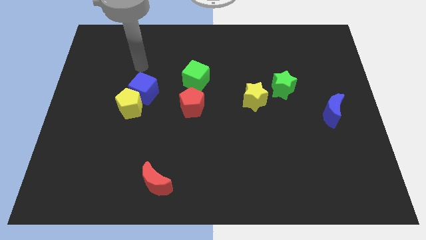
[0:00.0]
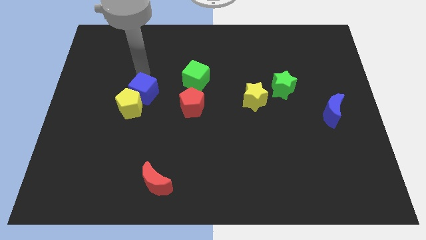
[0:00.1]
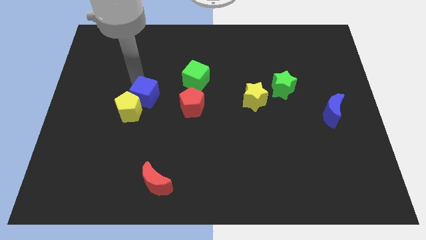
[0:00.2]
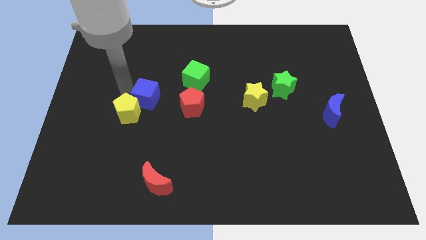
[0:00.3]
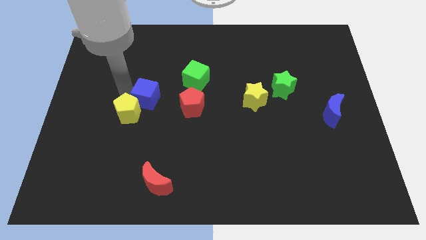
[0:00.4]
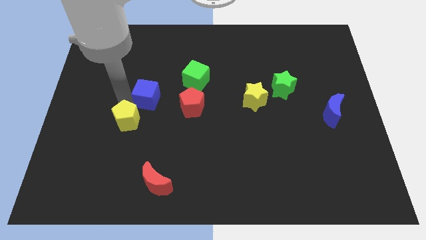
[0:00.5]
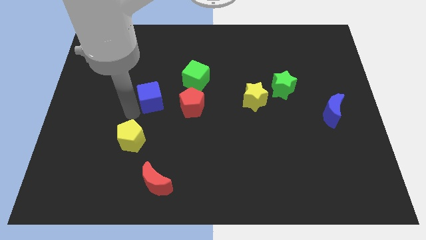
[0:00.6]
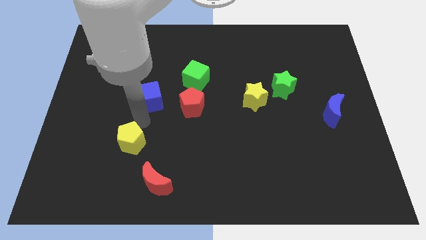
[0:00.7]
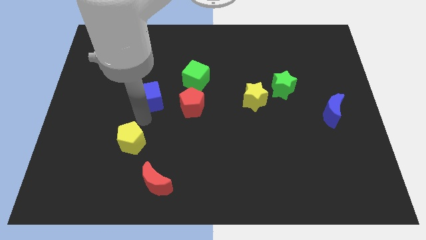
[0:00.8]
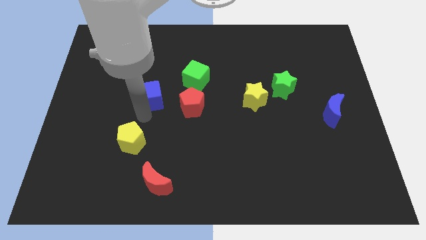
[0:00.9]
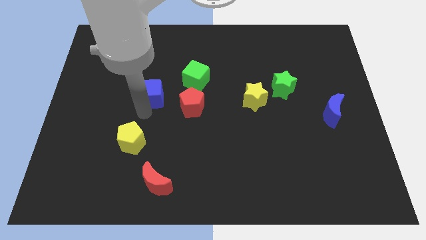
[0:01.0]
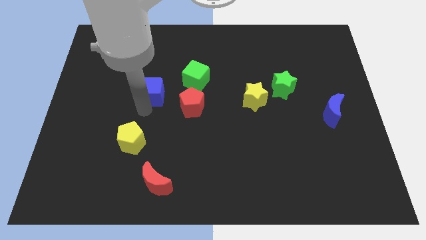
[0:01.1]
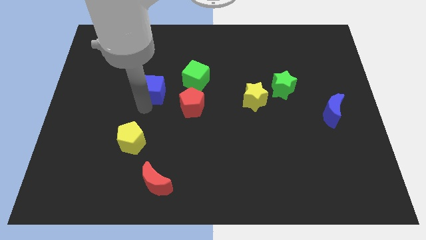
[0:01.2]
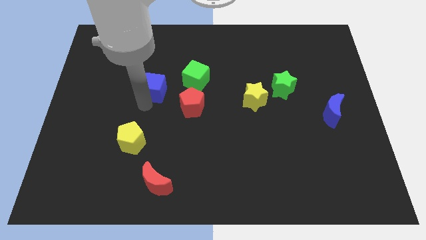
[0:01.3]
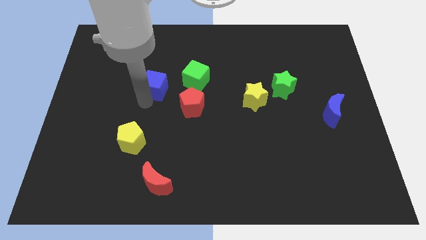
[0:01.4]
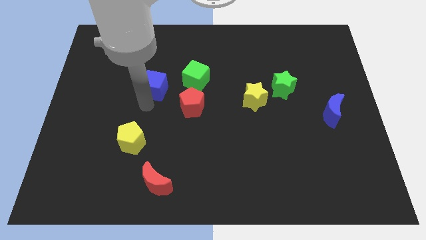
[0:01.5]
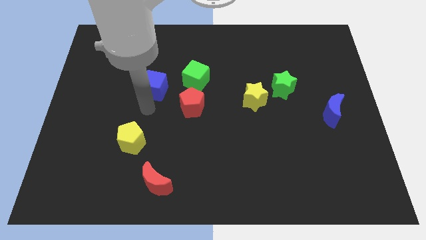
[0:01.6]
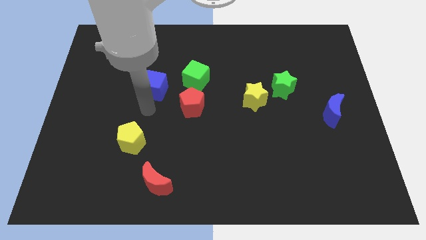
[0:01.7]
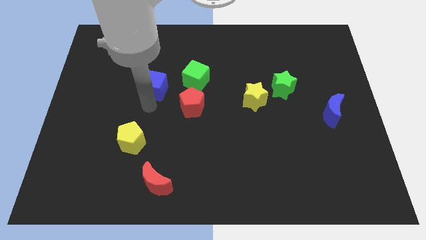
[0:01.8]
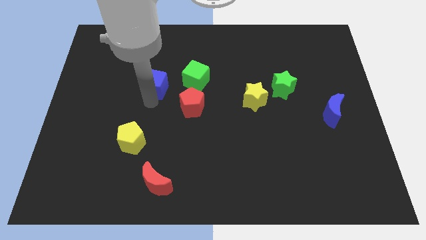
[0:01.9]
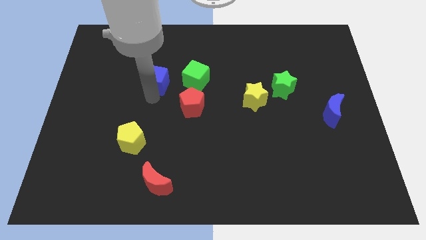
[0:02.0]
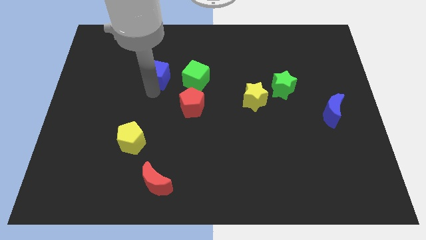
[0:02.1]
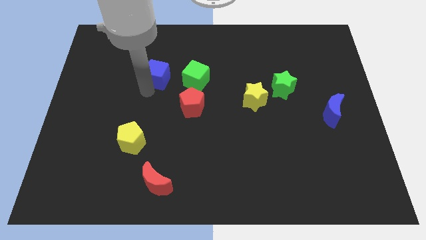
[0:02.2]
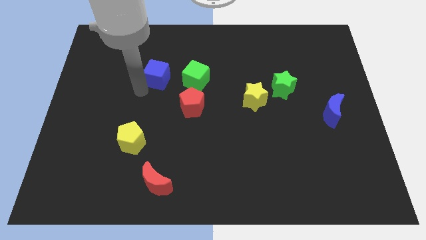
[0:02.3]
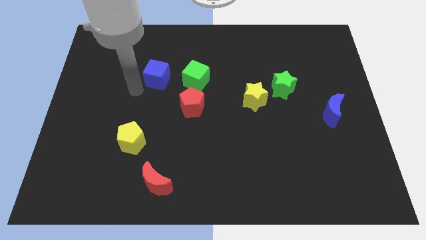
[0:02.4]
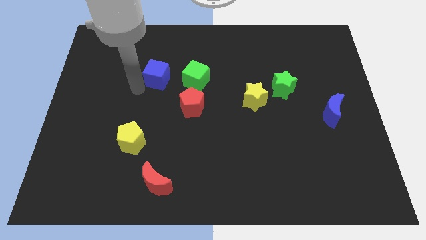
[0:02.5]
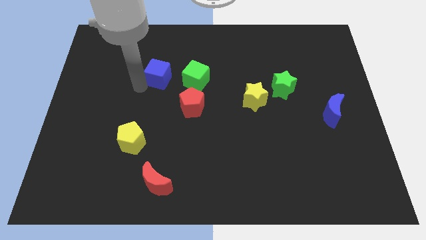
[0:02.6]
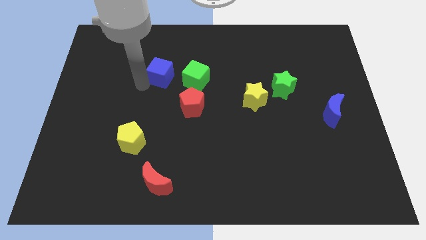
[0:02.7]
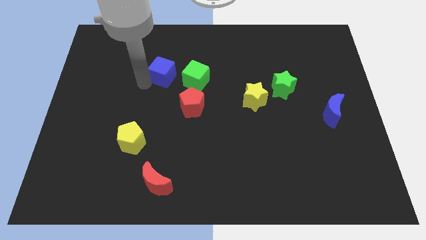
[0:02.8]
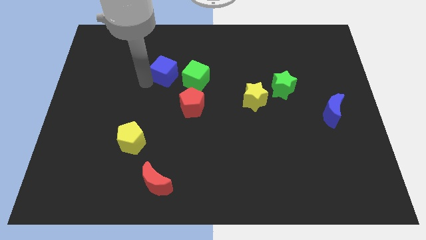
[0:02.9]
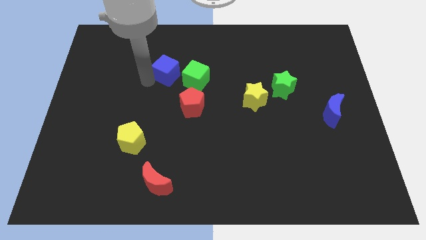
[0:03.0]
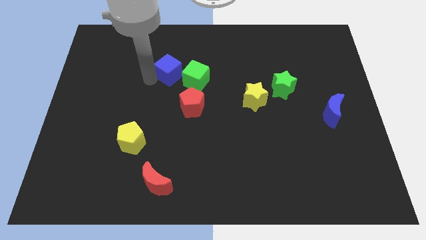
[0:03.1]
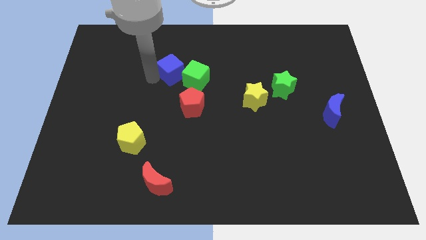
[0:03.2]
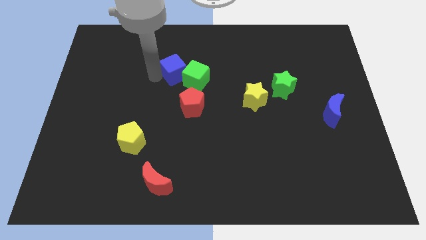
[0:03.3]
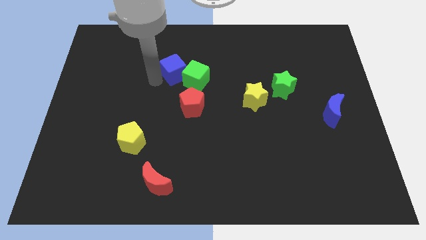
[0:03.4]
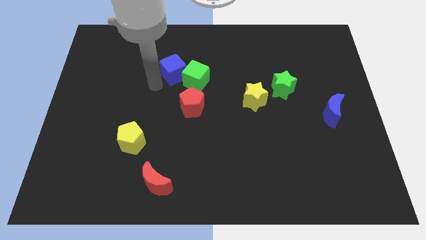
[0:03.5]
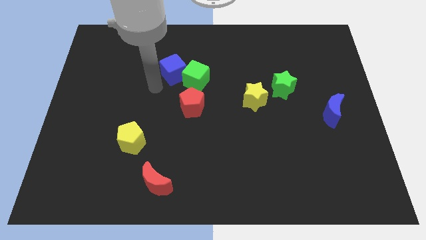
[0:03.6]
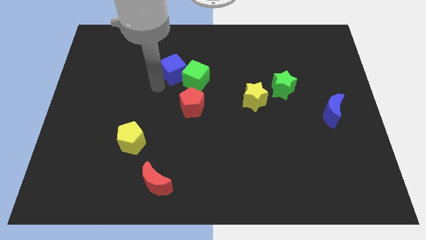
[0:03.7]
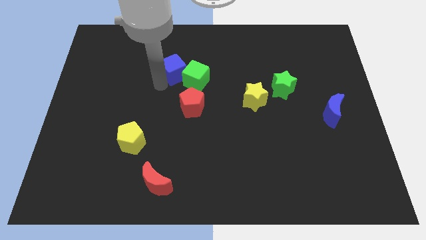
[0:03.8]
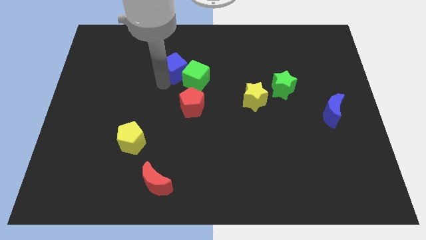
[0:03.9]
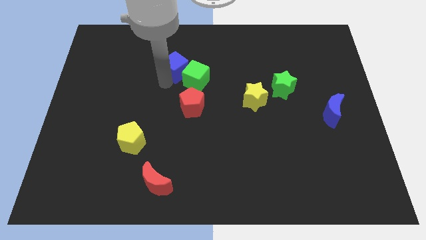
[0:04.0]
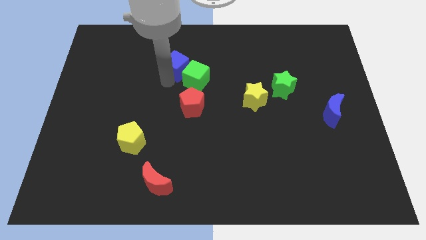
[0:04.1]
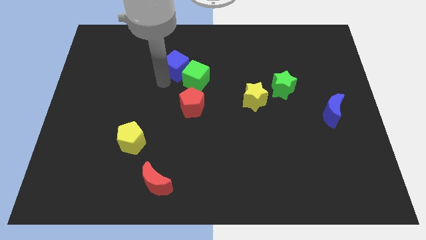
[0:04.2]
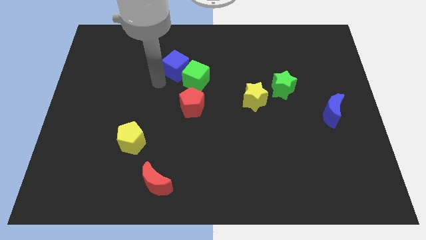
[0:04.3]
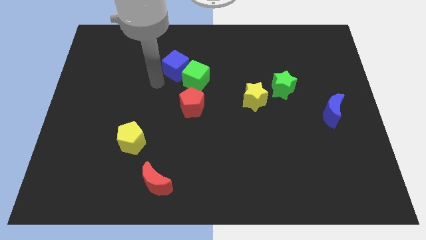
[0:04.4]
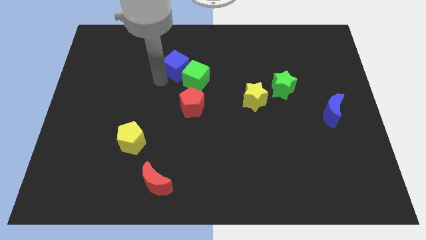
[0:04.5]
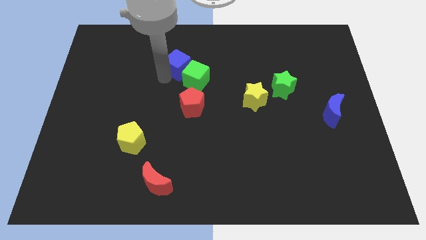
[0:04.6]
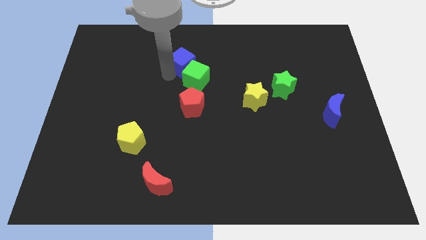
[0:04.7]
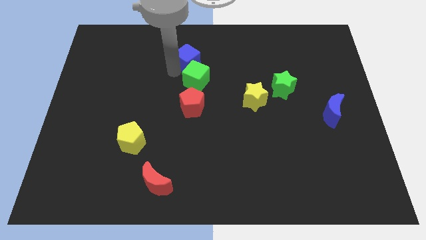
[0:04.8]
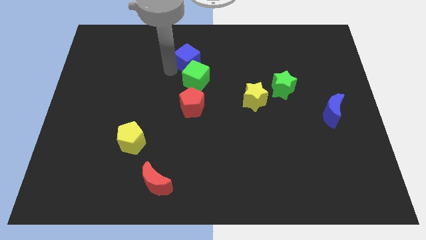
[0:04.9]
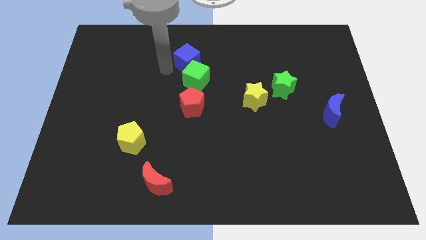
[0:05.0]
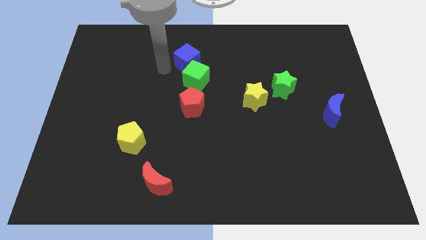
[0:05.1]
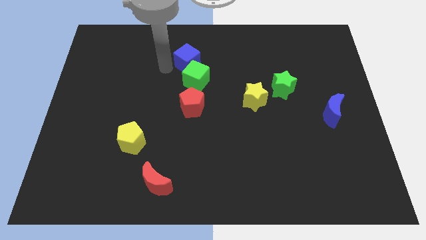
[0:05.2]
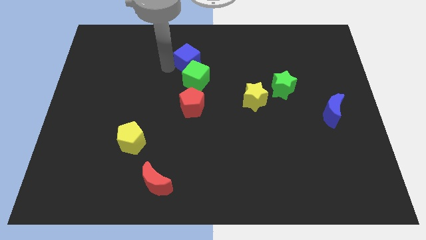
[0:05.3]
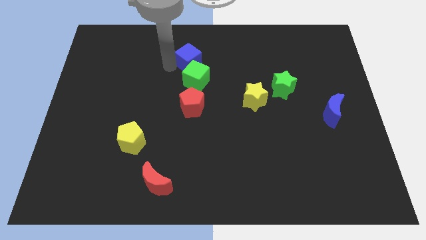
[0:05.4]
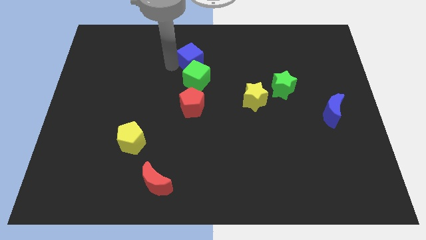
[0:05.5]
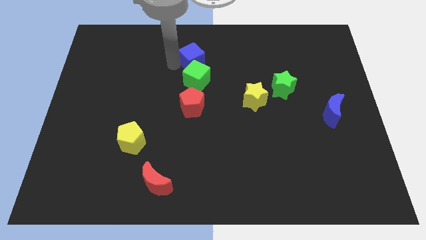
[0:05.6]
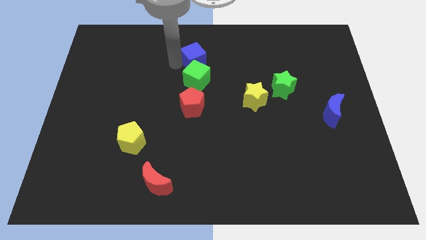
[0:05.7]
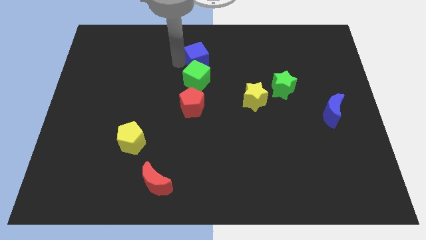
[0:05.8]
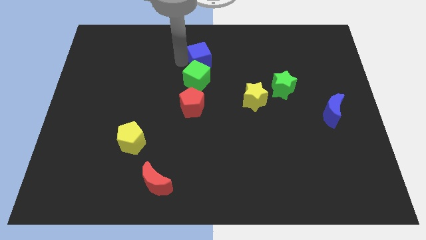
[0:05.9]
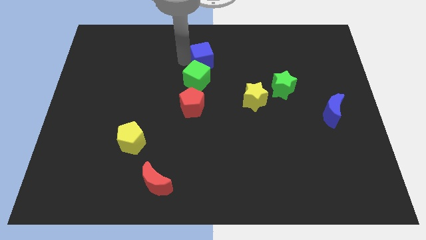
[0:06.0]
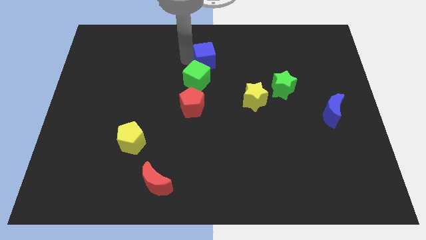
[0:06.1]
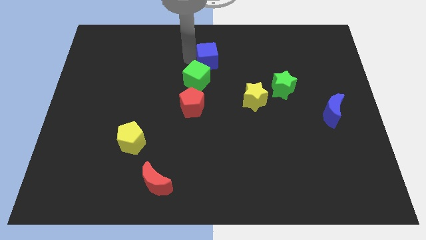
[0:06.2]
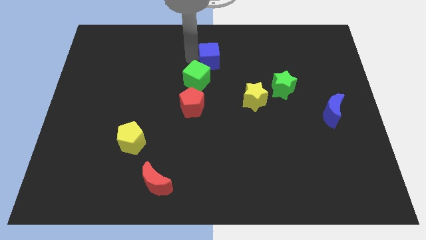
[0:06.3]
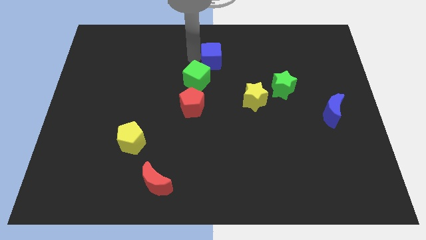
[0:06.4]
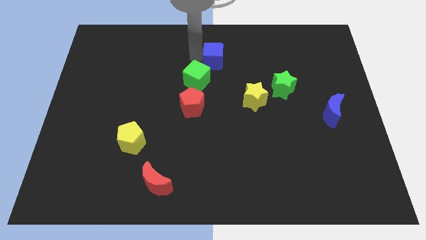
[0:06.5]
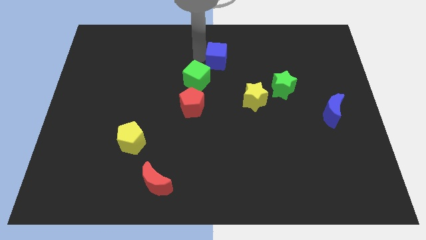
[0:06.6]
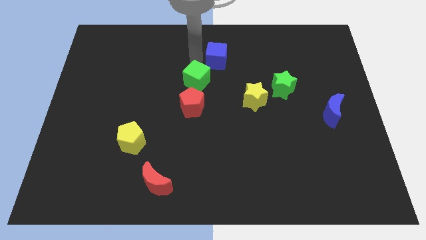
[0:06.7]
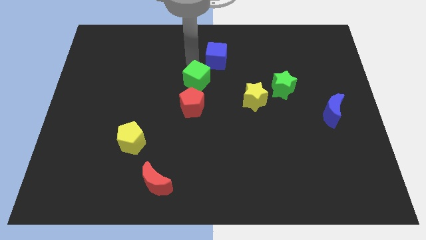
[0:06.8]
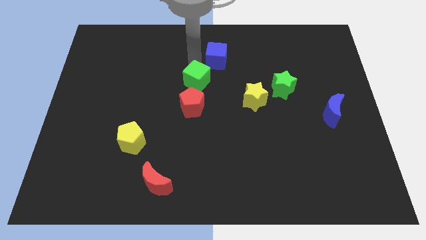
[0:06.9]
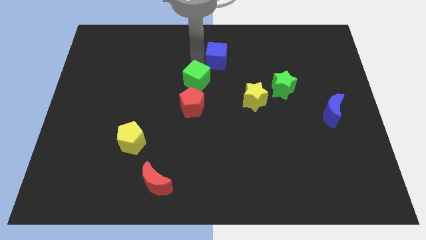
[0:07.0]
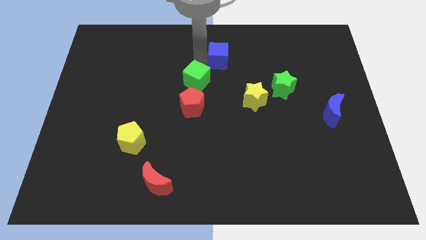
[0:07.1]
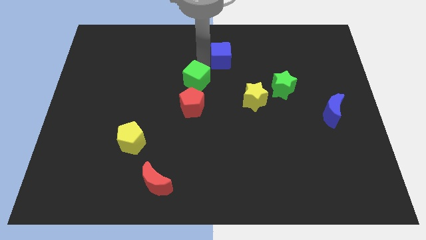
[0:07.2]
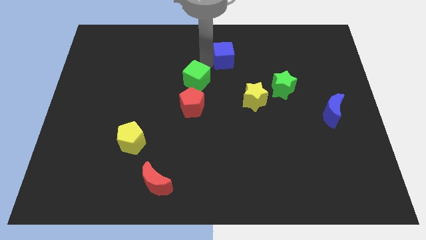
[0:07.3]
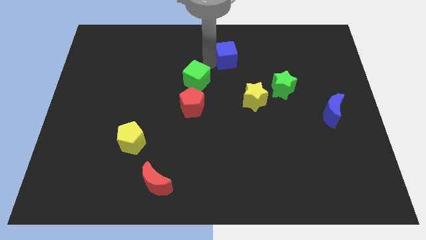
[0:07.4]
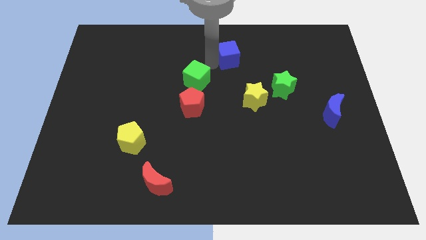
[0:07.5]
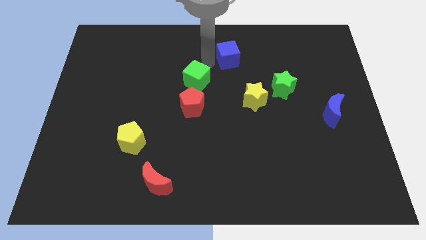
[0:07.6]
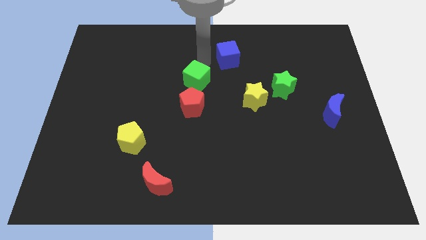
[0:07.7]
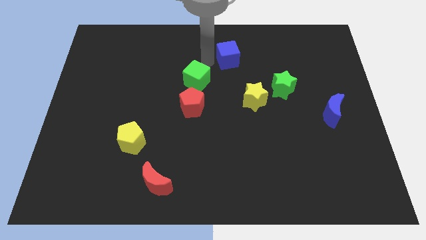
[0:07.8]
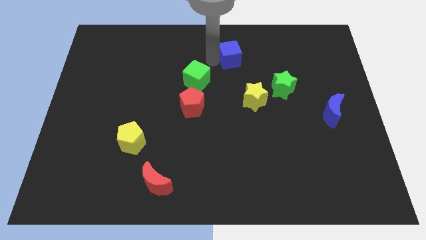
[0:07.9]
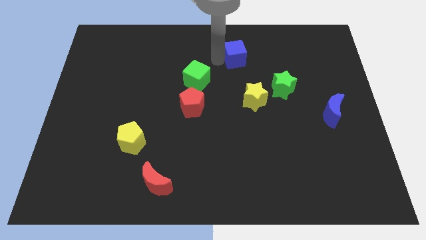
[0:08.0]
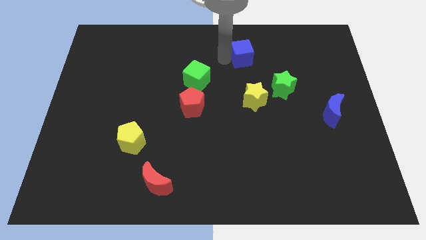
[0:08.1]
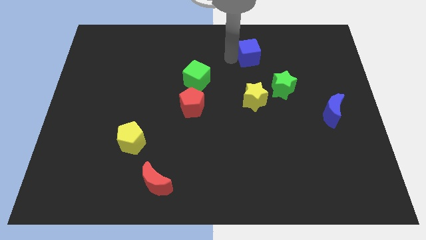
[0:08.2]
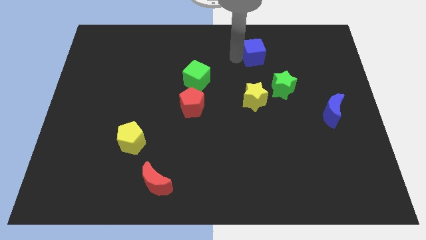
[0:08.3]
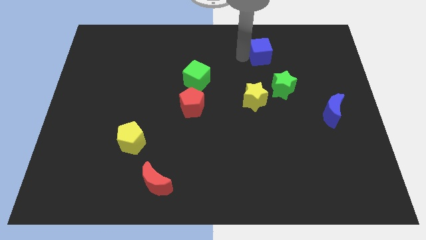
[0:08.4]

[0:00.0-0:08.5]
push the blue cube to the top of the green star
